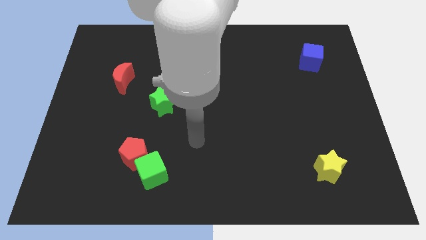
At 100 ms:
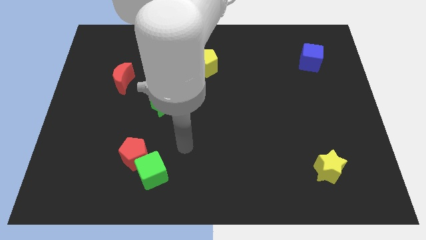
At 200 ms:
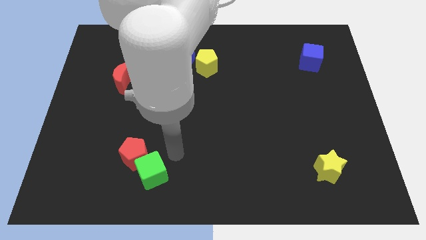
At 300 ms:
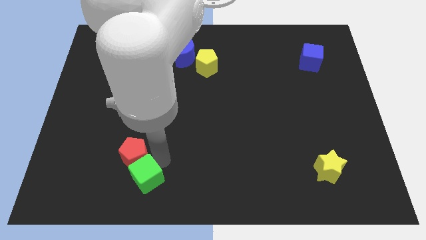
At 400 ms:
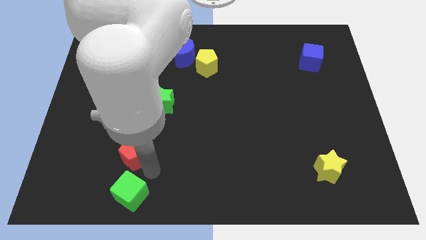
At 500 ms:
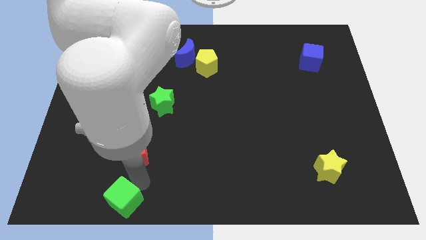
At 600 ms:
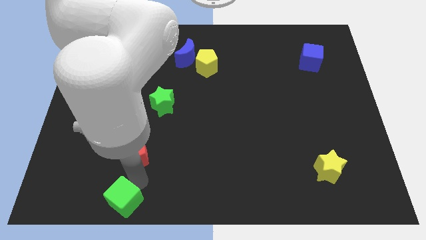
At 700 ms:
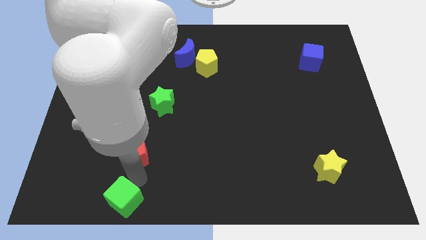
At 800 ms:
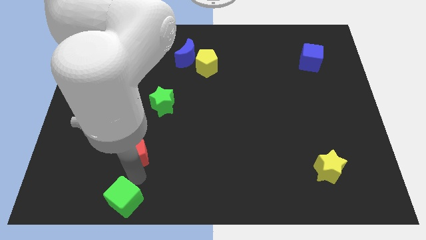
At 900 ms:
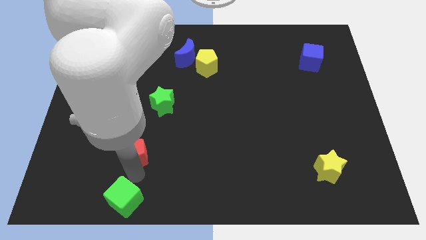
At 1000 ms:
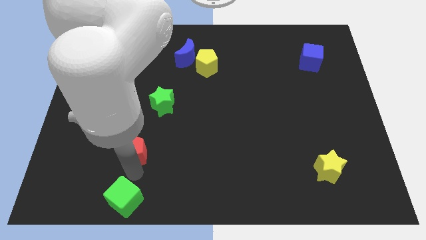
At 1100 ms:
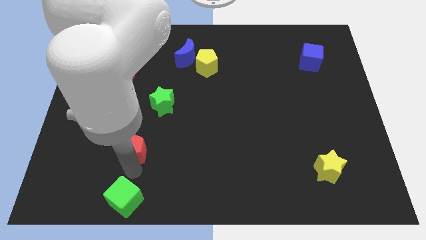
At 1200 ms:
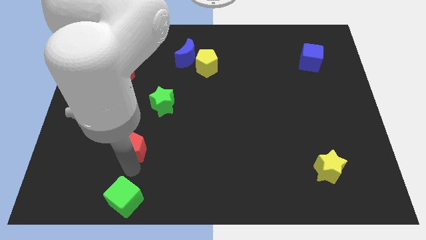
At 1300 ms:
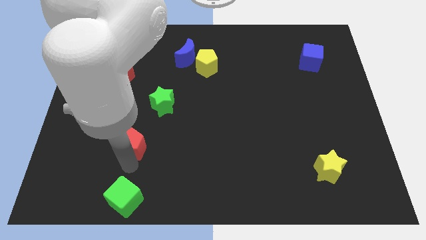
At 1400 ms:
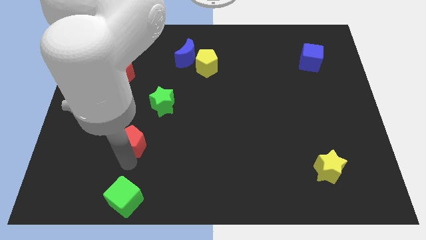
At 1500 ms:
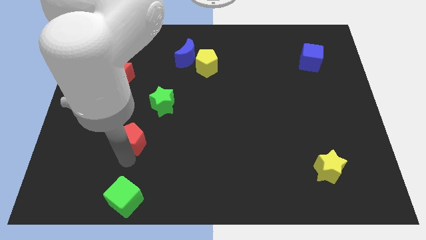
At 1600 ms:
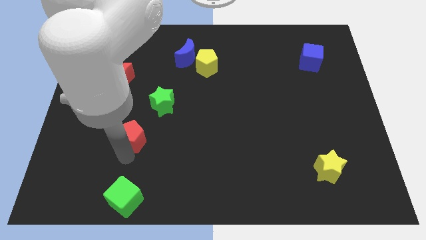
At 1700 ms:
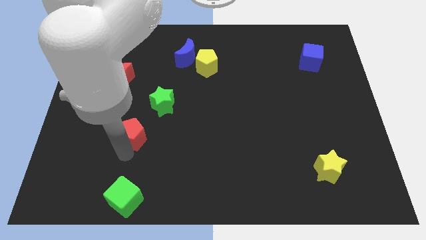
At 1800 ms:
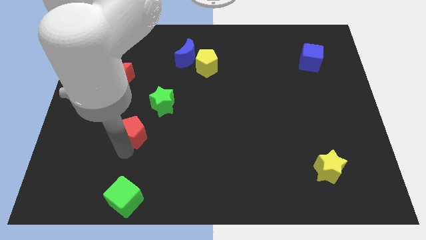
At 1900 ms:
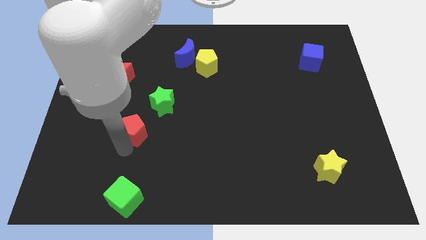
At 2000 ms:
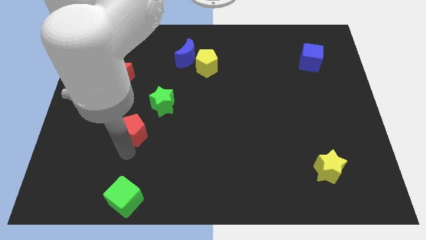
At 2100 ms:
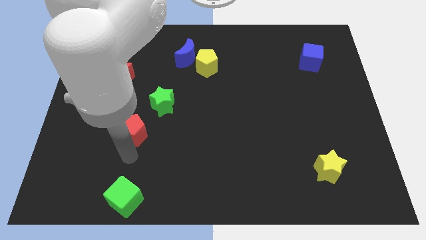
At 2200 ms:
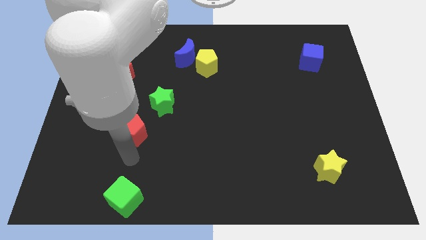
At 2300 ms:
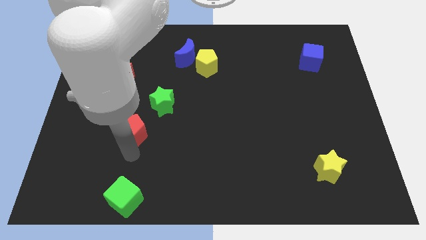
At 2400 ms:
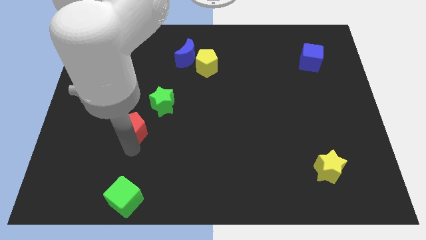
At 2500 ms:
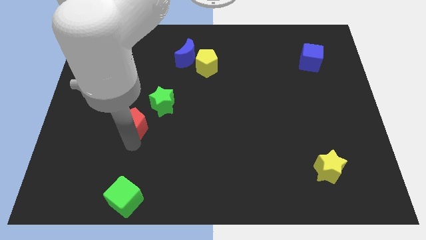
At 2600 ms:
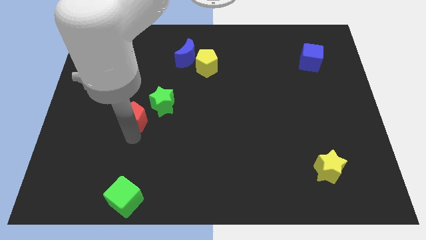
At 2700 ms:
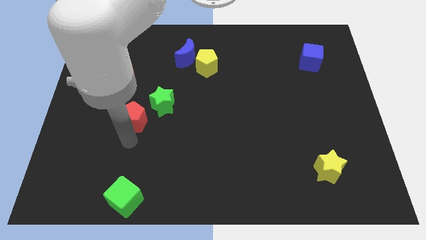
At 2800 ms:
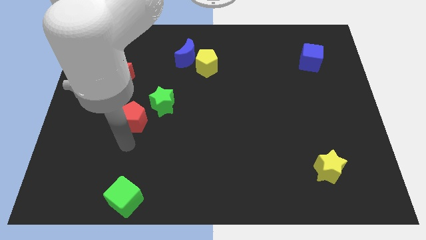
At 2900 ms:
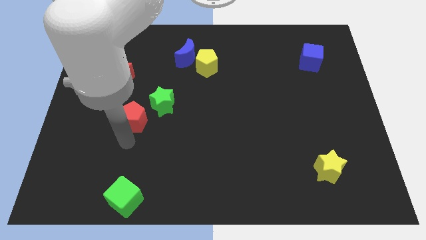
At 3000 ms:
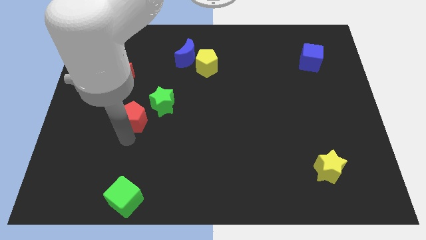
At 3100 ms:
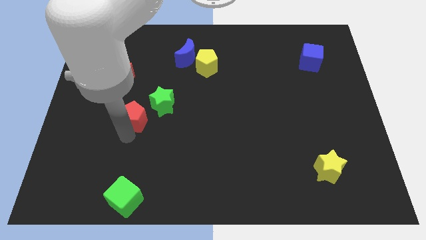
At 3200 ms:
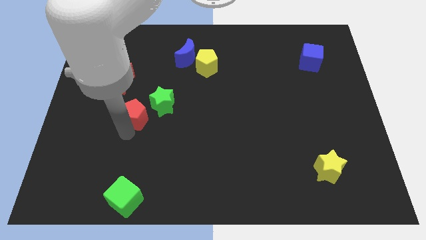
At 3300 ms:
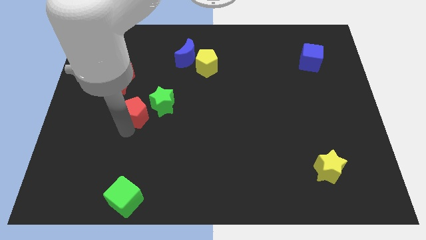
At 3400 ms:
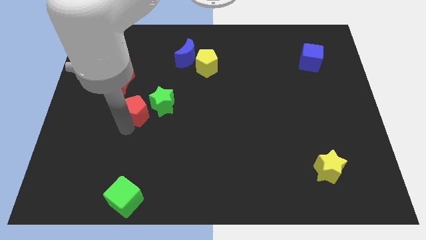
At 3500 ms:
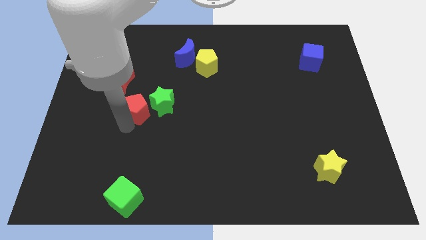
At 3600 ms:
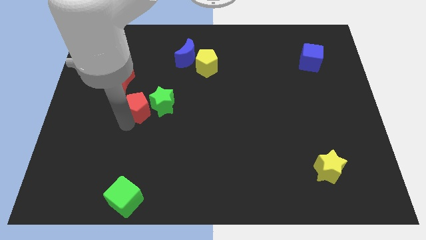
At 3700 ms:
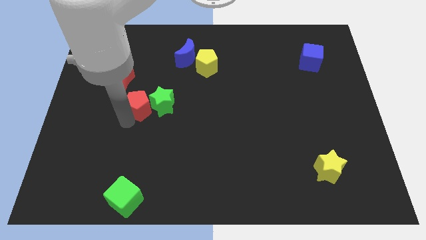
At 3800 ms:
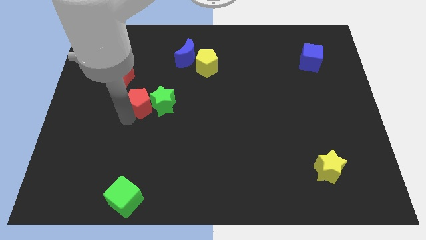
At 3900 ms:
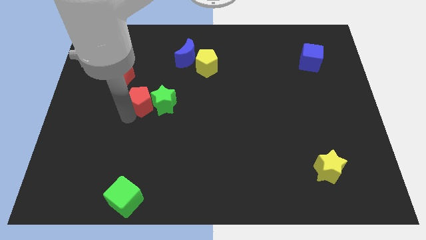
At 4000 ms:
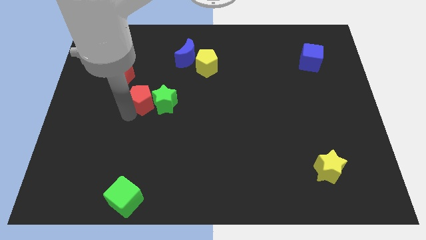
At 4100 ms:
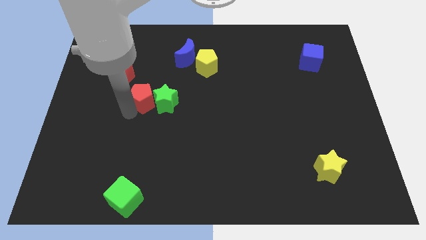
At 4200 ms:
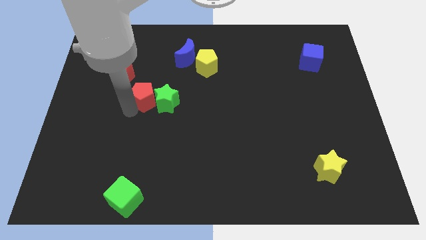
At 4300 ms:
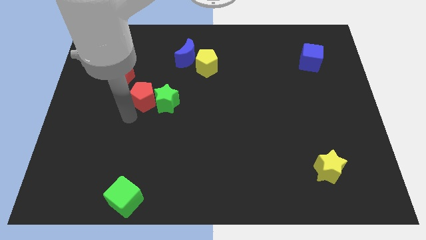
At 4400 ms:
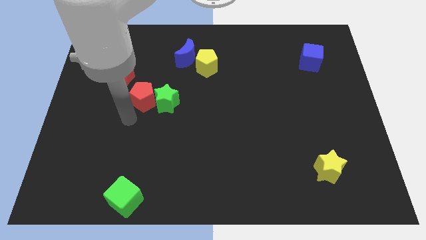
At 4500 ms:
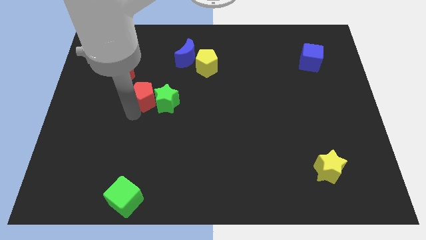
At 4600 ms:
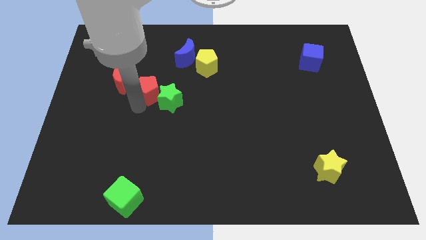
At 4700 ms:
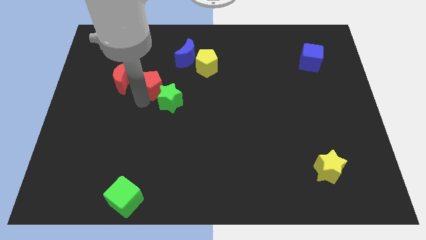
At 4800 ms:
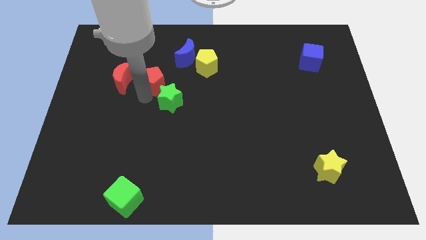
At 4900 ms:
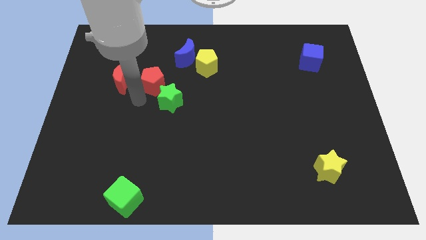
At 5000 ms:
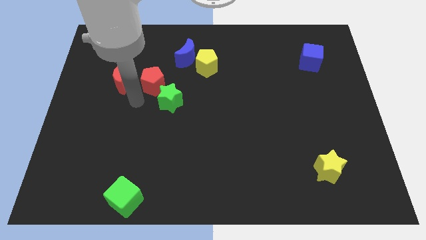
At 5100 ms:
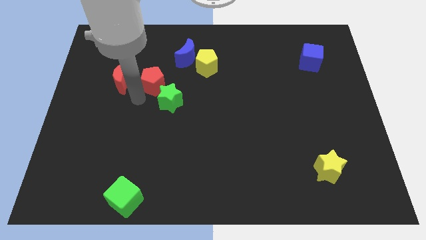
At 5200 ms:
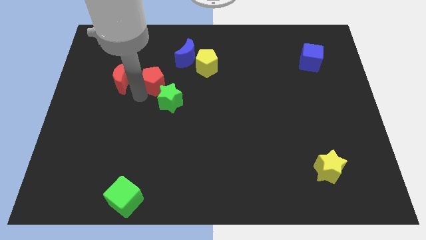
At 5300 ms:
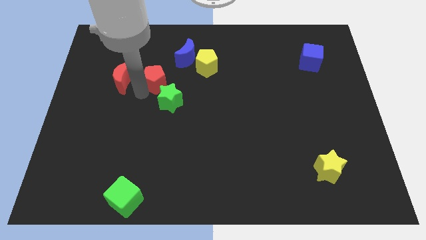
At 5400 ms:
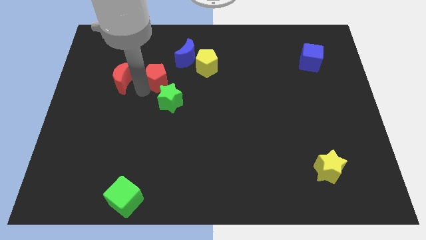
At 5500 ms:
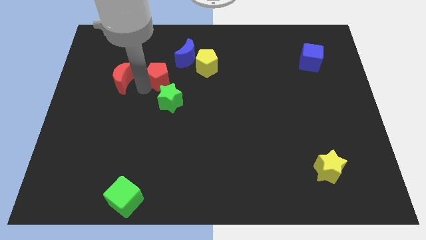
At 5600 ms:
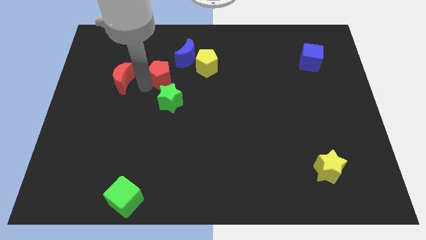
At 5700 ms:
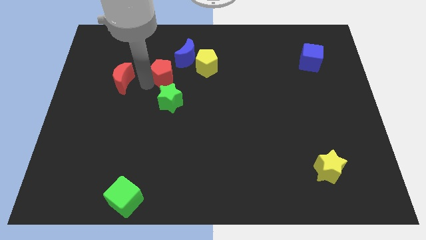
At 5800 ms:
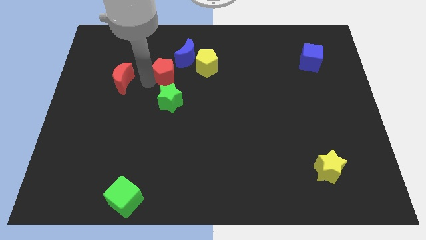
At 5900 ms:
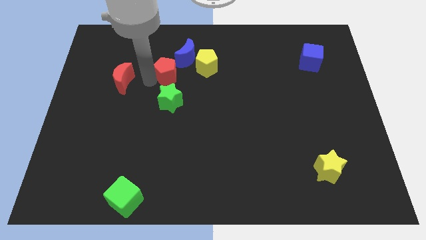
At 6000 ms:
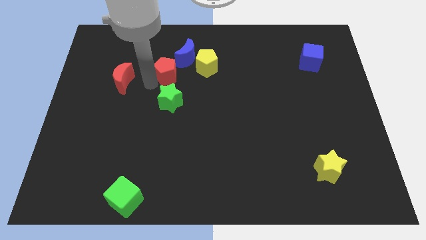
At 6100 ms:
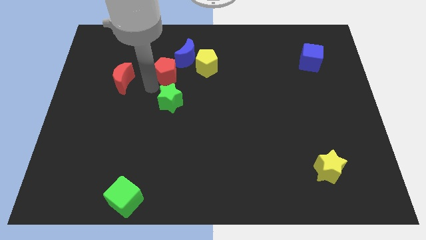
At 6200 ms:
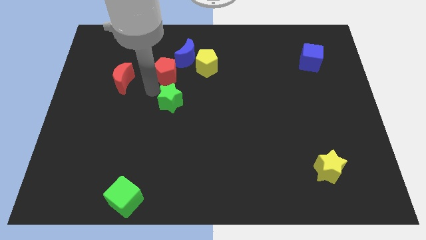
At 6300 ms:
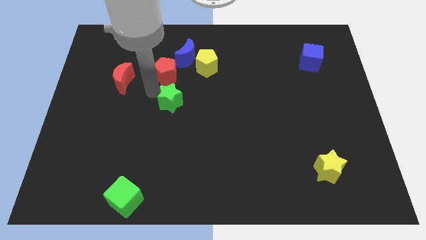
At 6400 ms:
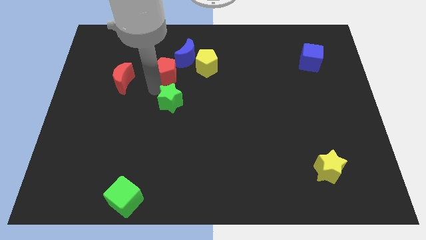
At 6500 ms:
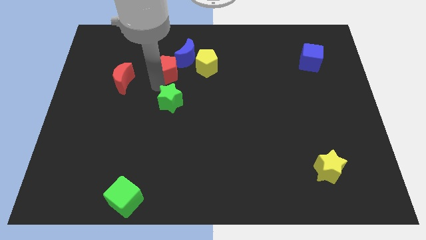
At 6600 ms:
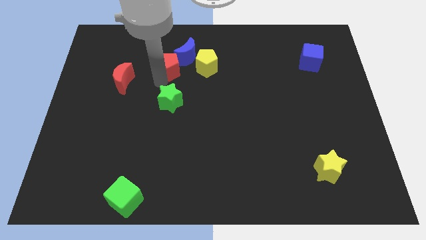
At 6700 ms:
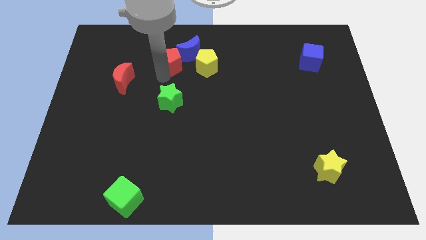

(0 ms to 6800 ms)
slide the red pentagon to the blue moon
